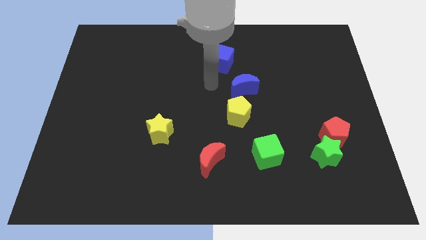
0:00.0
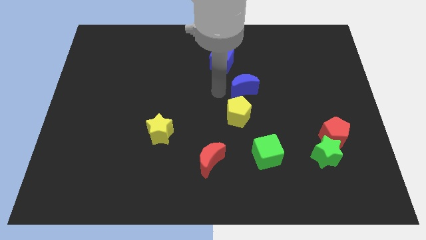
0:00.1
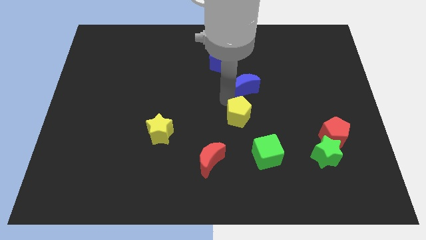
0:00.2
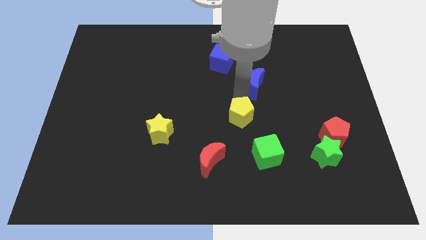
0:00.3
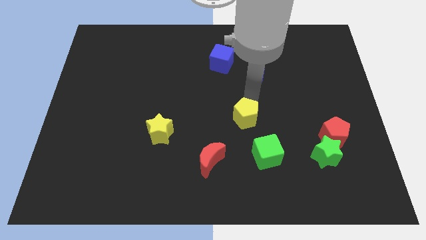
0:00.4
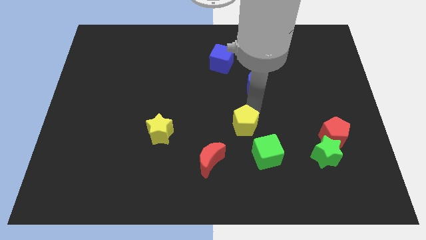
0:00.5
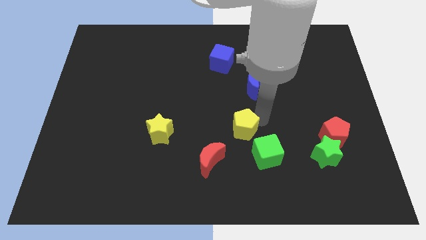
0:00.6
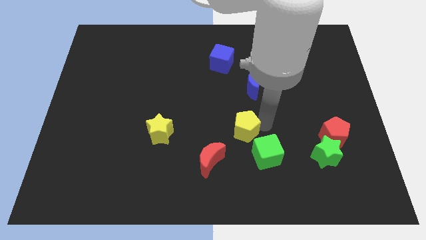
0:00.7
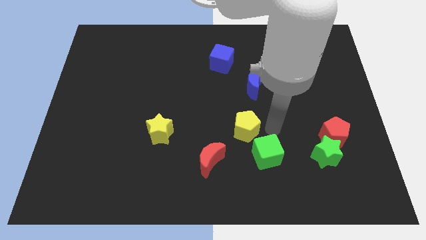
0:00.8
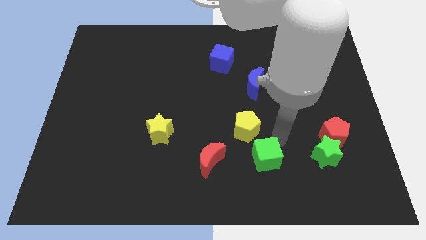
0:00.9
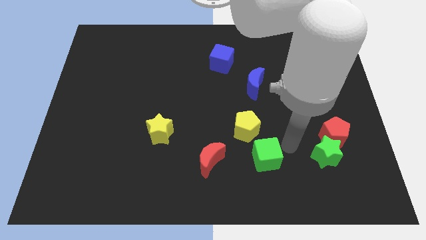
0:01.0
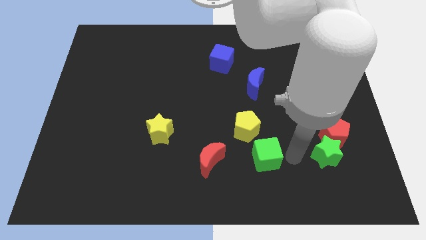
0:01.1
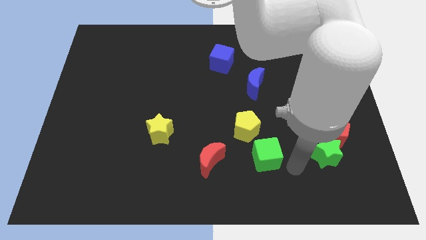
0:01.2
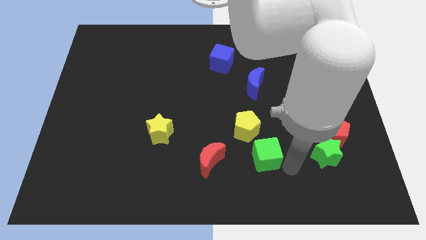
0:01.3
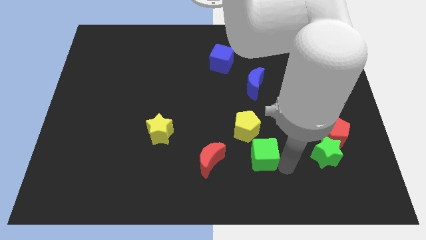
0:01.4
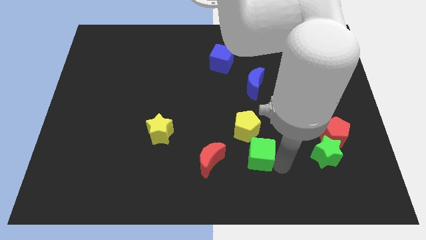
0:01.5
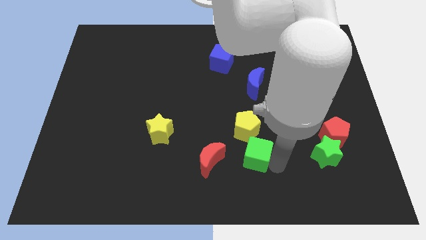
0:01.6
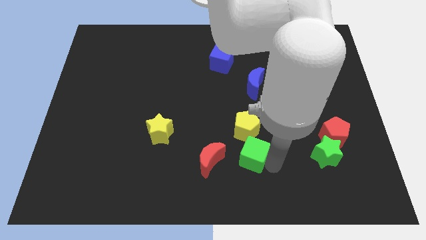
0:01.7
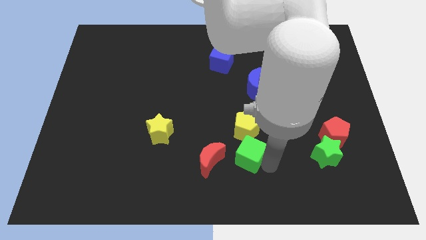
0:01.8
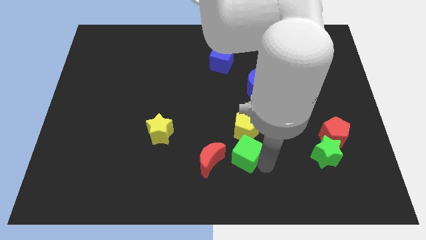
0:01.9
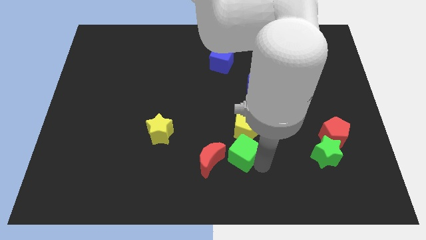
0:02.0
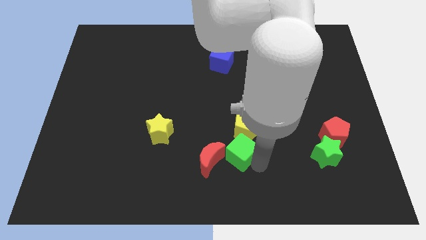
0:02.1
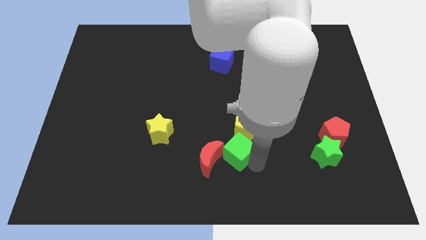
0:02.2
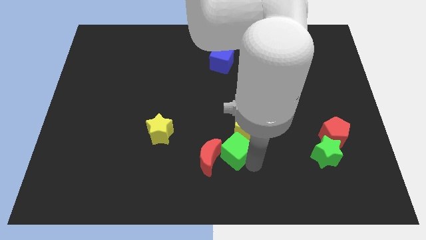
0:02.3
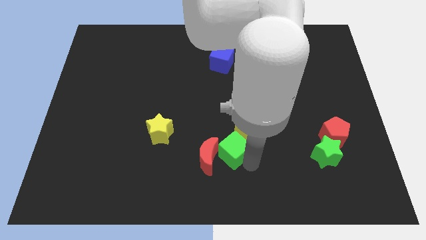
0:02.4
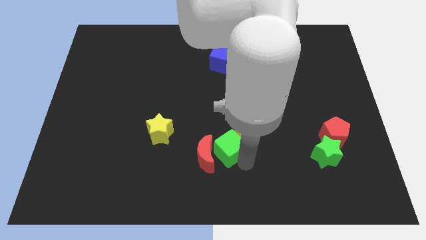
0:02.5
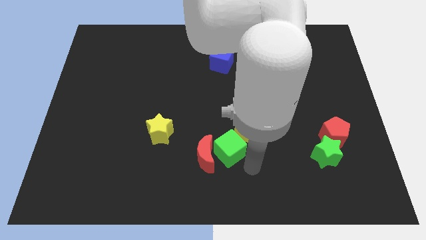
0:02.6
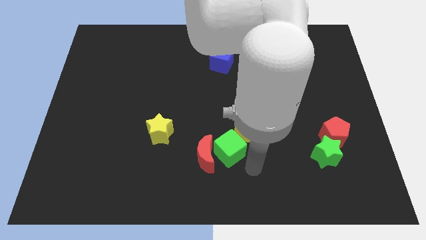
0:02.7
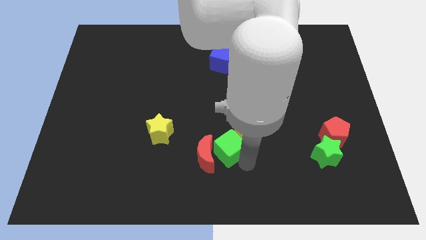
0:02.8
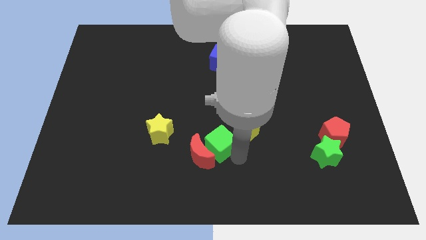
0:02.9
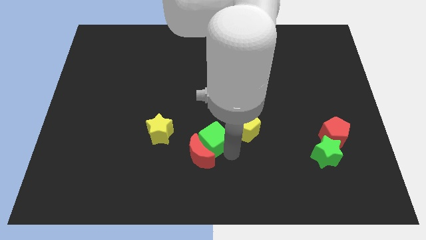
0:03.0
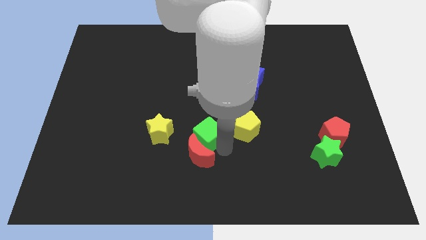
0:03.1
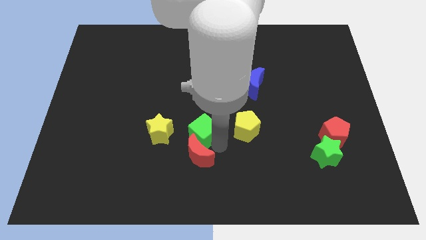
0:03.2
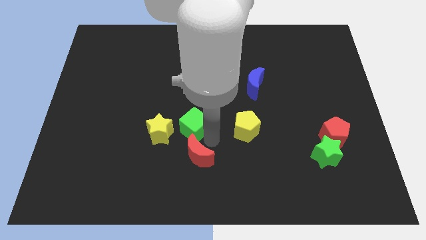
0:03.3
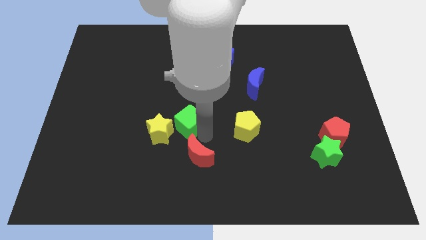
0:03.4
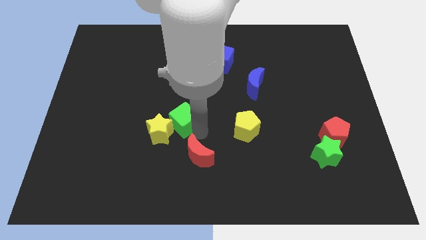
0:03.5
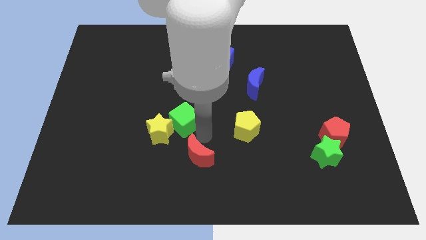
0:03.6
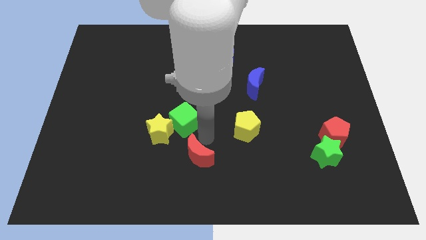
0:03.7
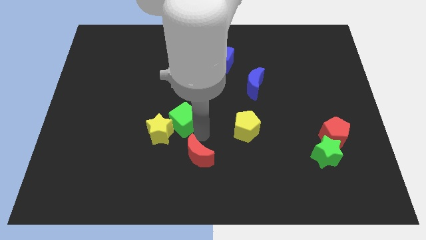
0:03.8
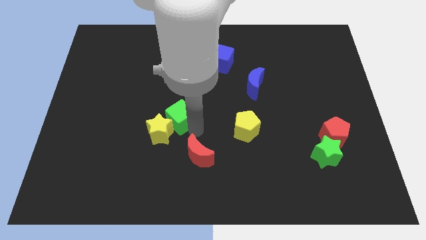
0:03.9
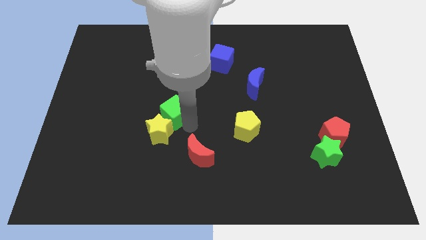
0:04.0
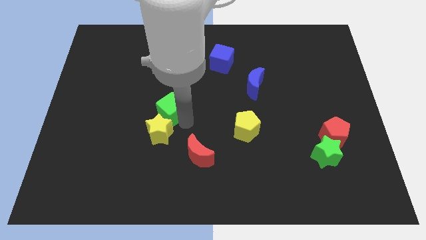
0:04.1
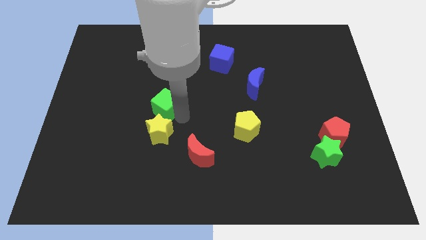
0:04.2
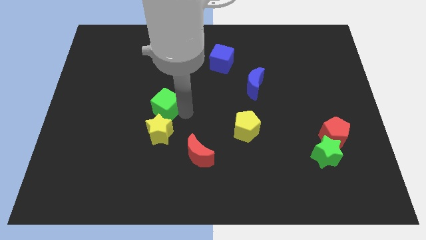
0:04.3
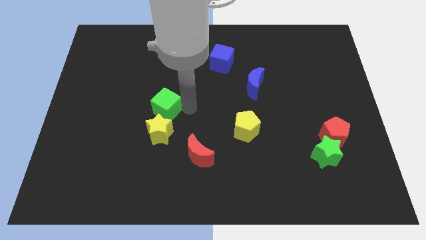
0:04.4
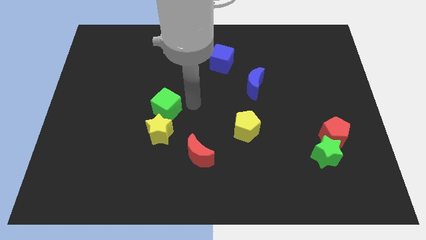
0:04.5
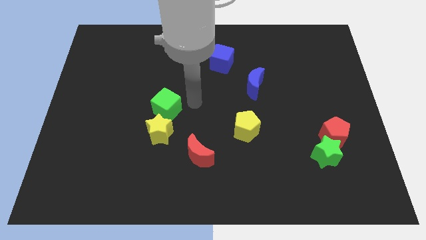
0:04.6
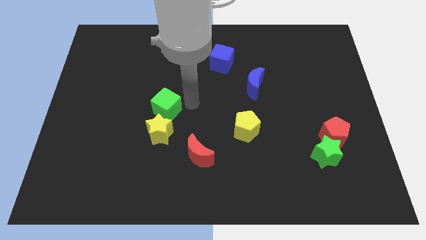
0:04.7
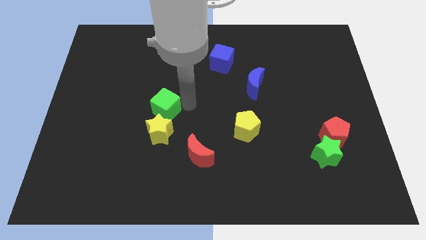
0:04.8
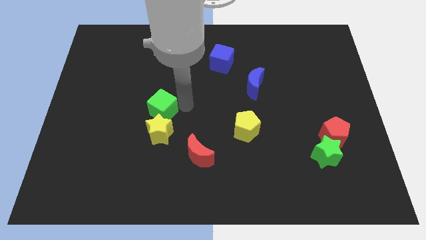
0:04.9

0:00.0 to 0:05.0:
push the green cube to the top left side of the yellow star

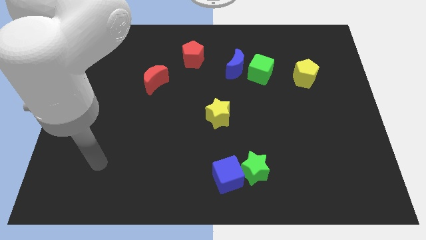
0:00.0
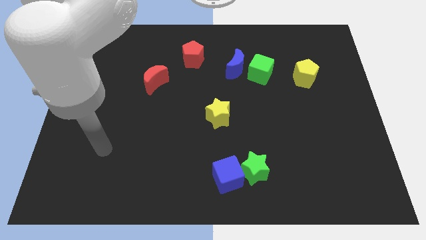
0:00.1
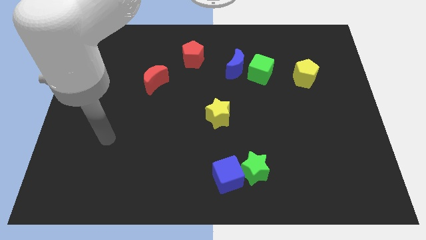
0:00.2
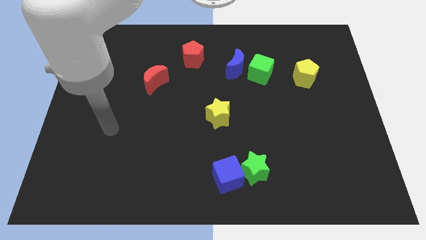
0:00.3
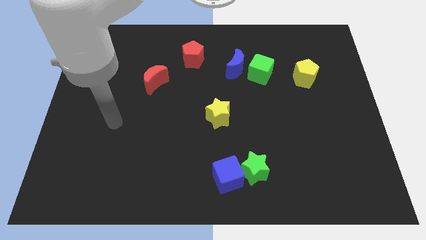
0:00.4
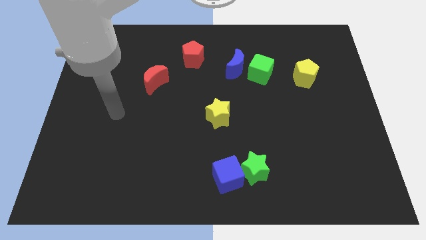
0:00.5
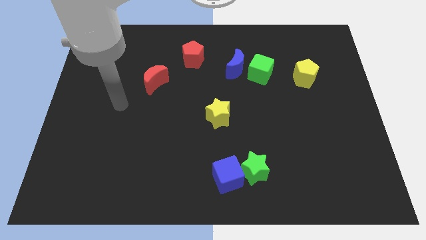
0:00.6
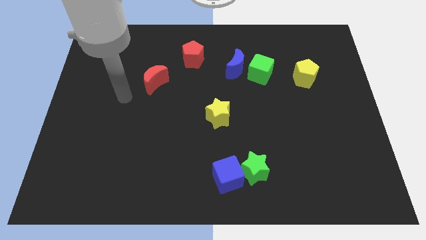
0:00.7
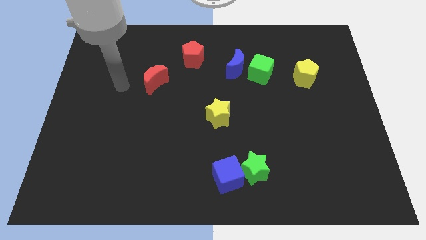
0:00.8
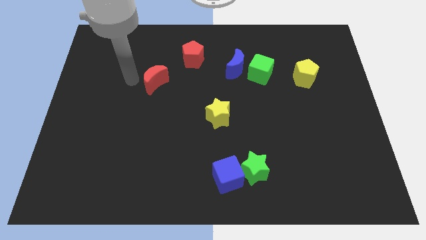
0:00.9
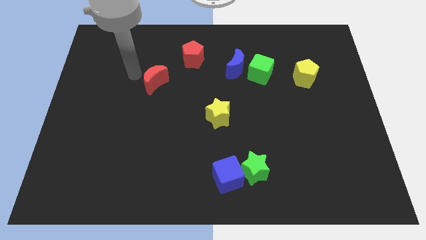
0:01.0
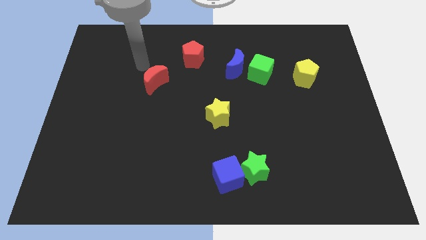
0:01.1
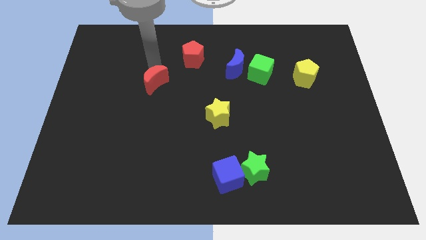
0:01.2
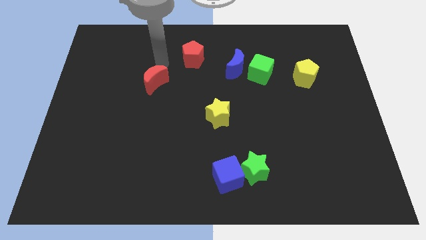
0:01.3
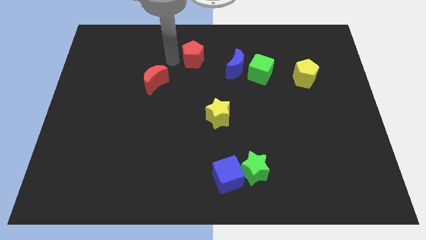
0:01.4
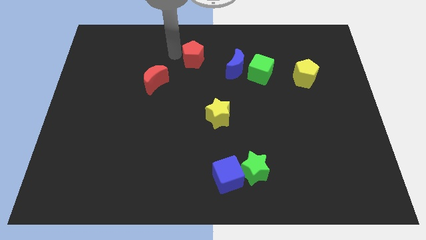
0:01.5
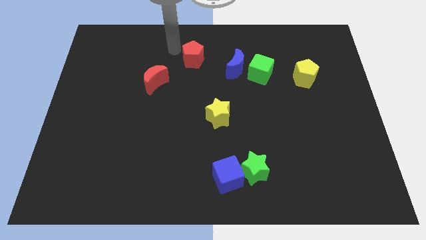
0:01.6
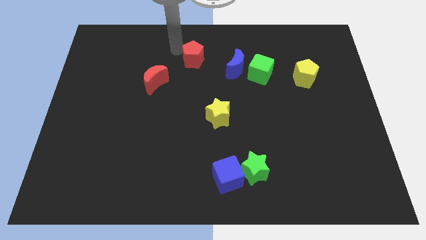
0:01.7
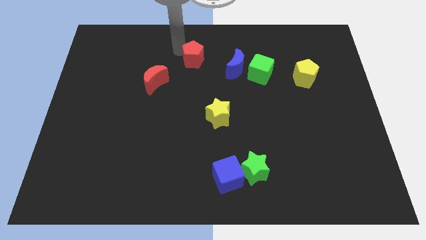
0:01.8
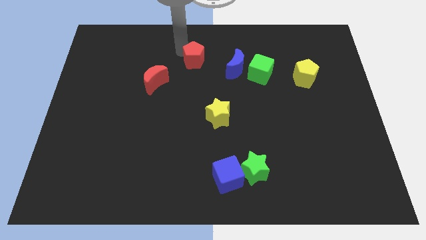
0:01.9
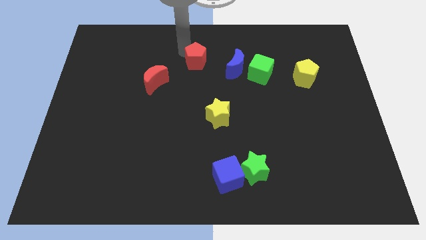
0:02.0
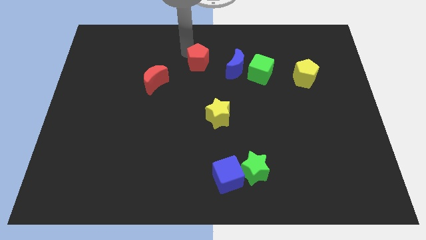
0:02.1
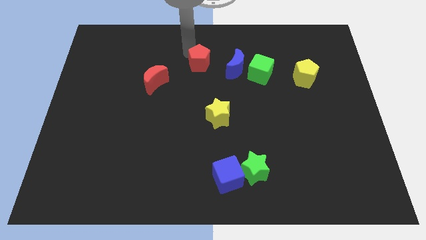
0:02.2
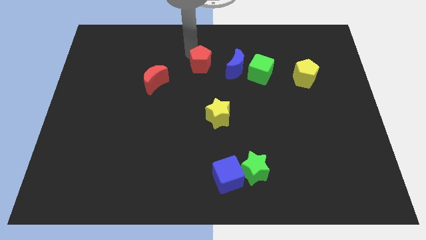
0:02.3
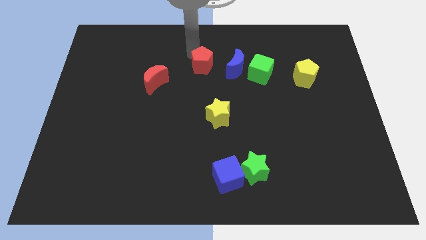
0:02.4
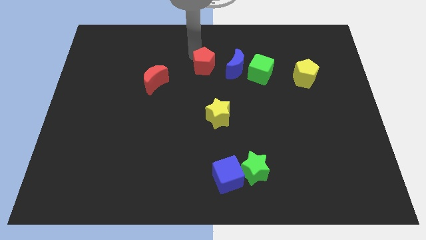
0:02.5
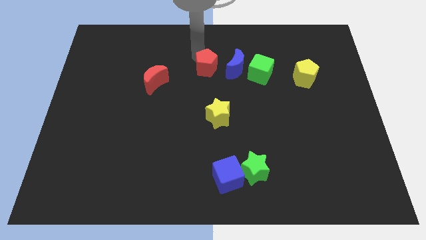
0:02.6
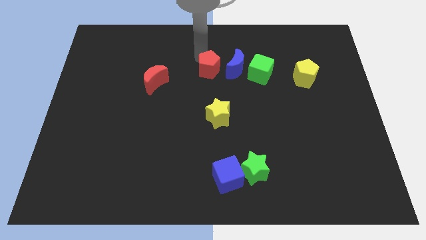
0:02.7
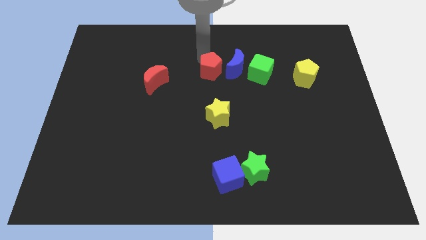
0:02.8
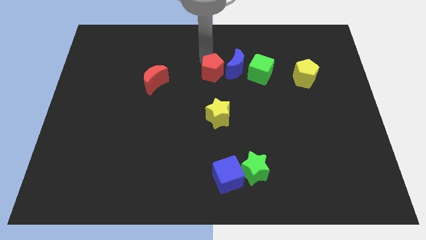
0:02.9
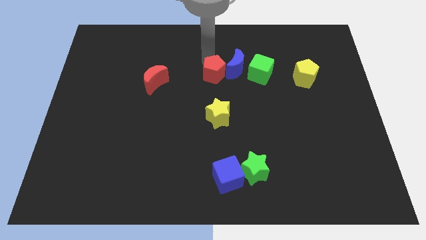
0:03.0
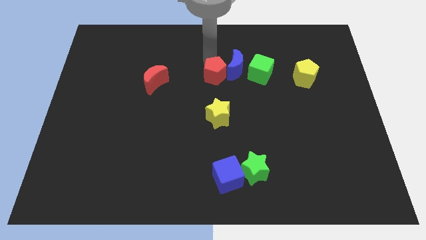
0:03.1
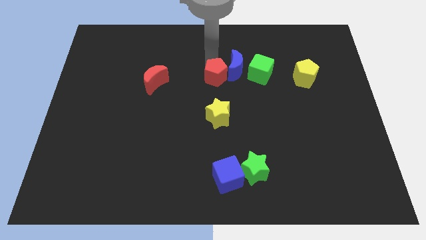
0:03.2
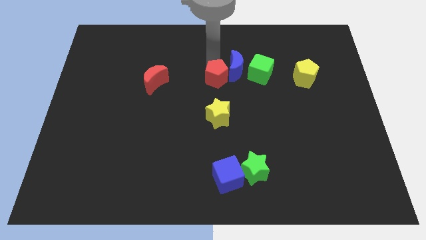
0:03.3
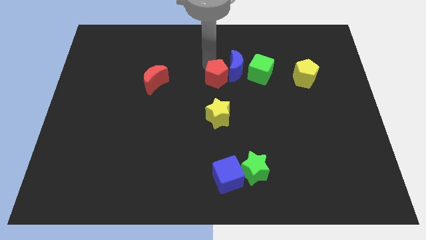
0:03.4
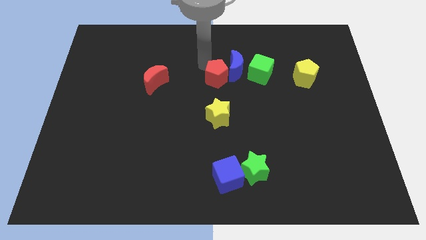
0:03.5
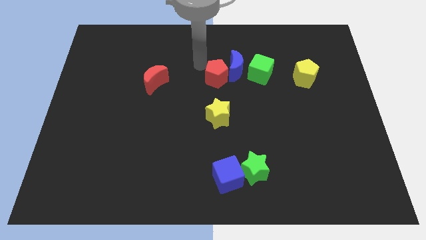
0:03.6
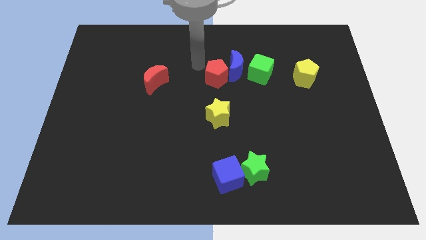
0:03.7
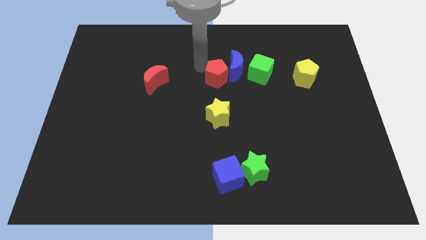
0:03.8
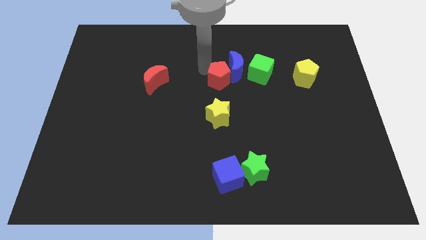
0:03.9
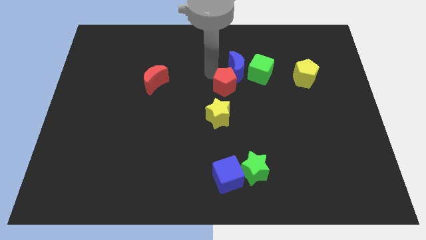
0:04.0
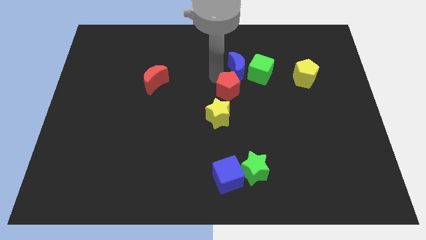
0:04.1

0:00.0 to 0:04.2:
move the red pentagon to the top right side of the yellow star
